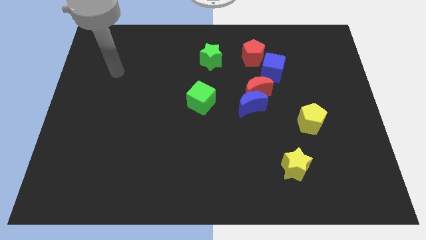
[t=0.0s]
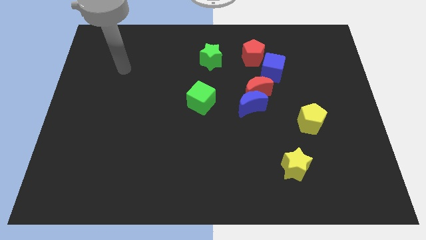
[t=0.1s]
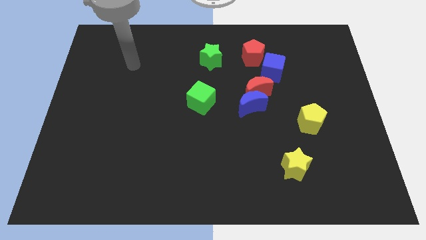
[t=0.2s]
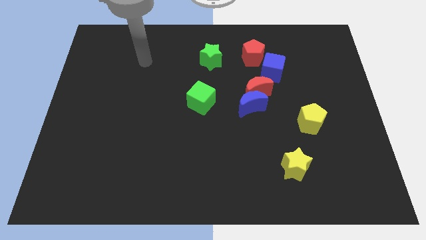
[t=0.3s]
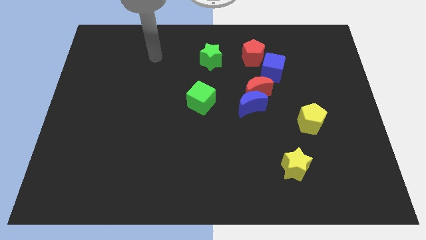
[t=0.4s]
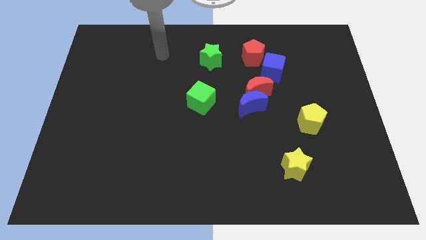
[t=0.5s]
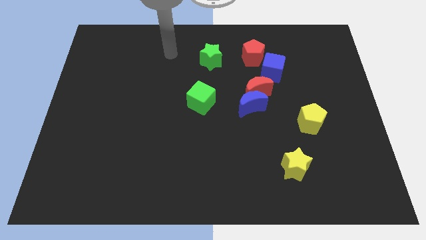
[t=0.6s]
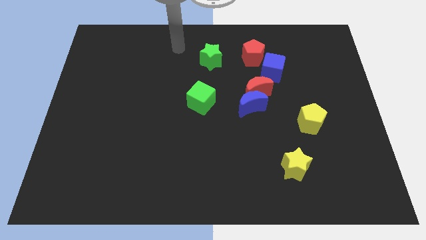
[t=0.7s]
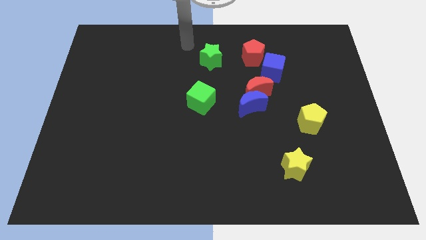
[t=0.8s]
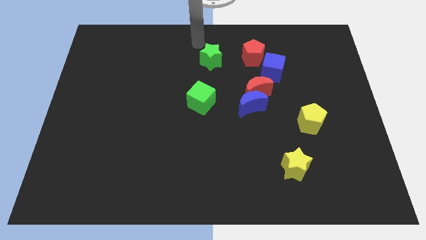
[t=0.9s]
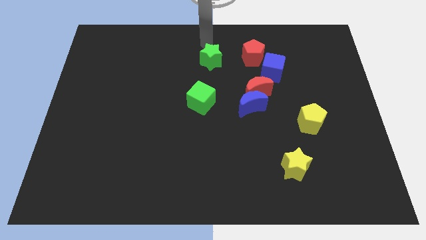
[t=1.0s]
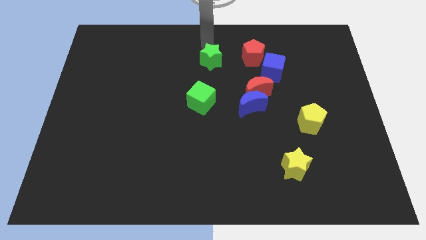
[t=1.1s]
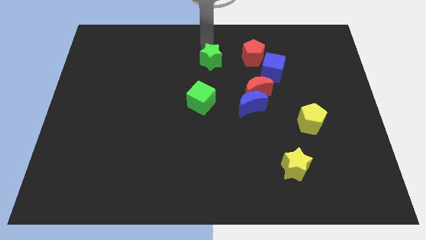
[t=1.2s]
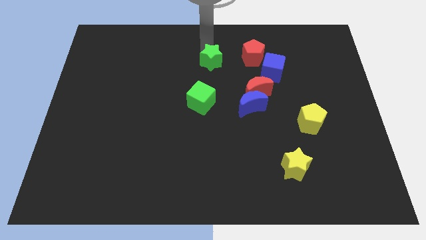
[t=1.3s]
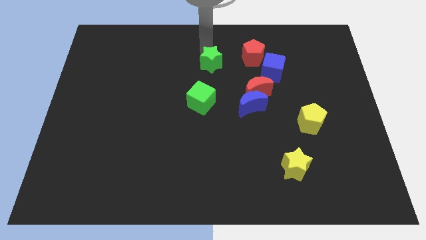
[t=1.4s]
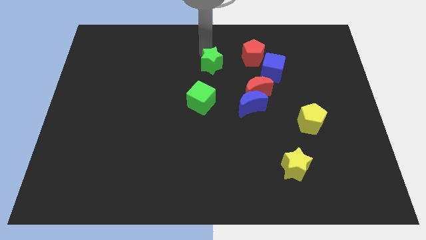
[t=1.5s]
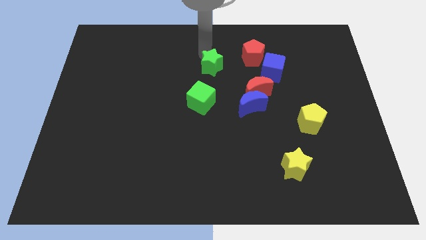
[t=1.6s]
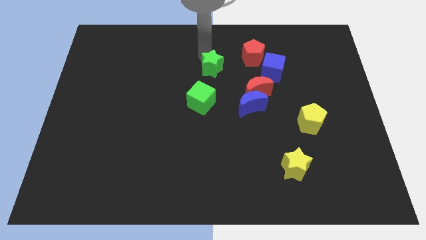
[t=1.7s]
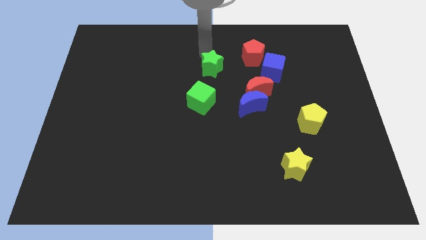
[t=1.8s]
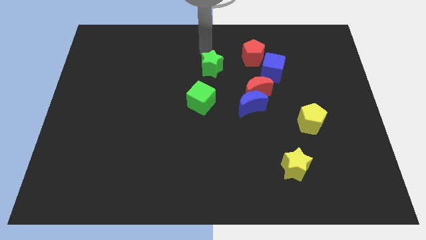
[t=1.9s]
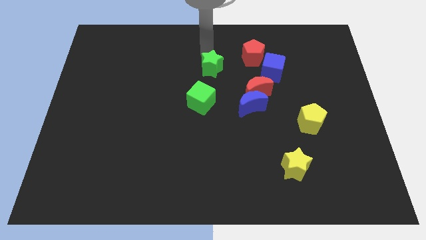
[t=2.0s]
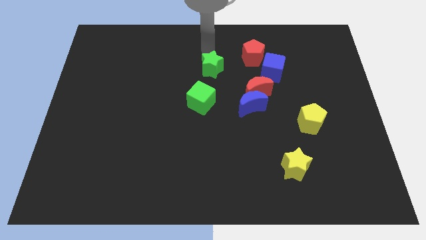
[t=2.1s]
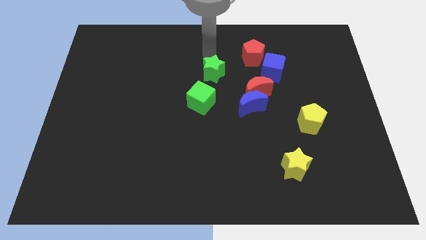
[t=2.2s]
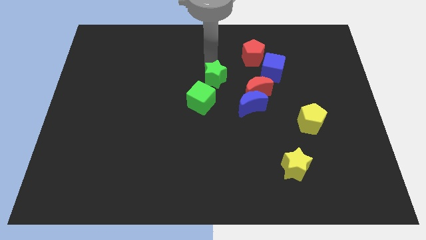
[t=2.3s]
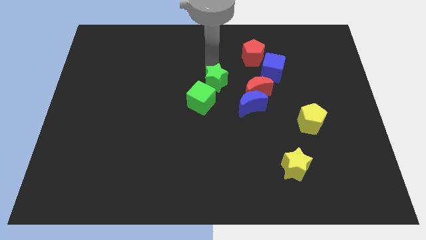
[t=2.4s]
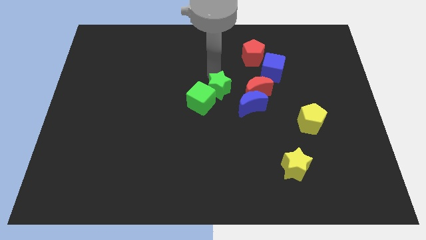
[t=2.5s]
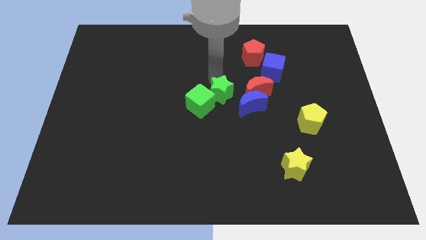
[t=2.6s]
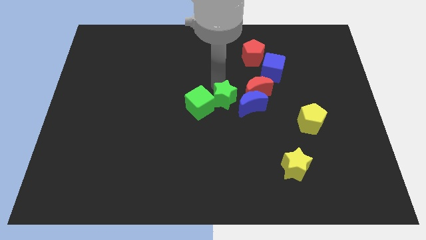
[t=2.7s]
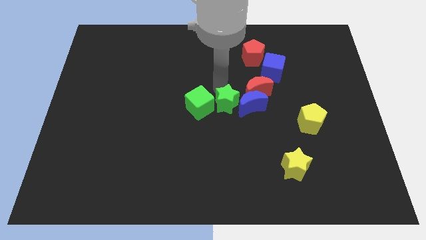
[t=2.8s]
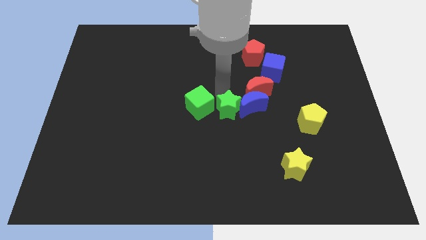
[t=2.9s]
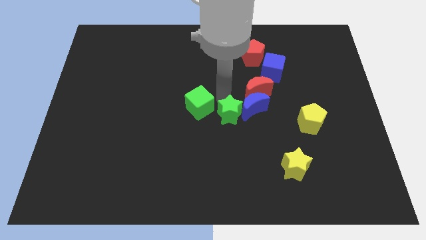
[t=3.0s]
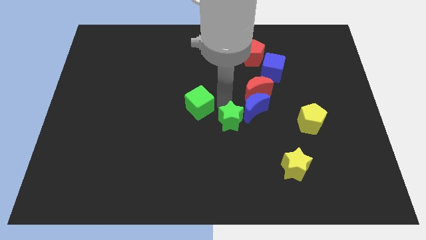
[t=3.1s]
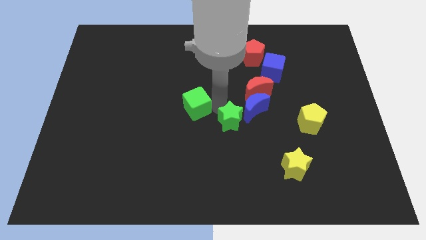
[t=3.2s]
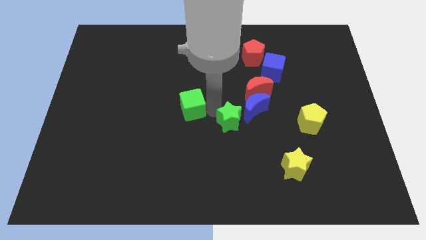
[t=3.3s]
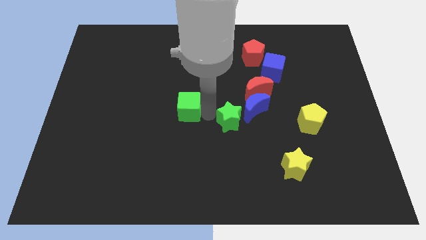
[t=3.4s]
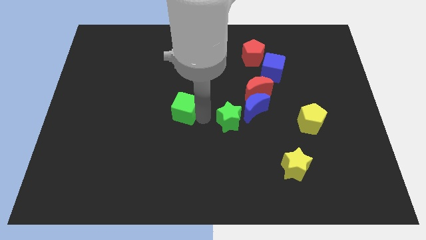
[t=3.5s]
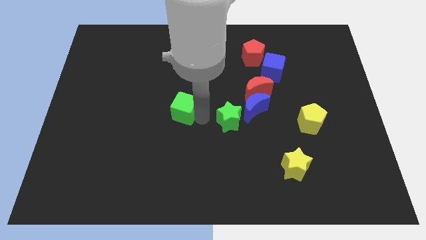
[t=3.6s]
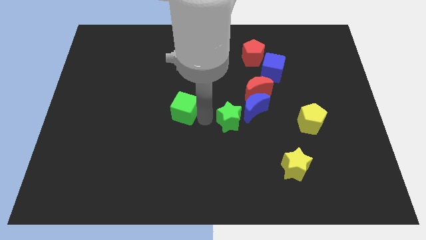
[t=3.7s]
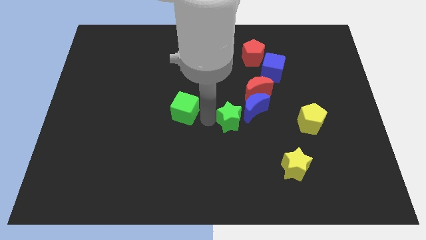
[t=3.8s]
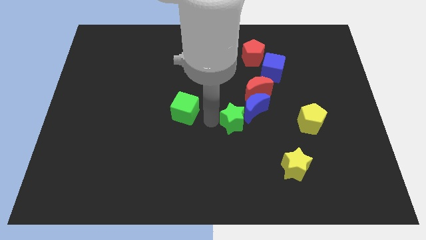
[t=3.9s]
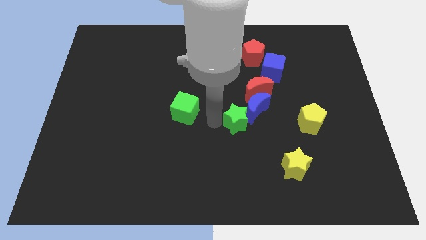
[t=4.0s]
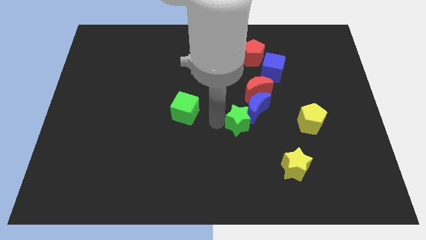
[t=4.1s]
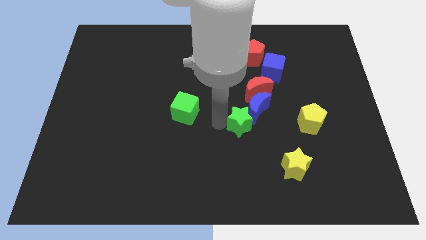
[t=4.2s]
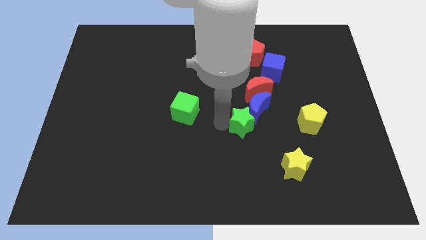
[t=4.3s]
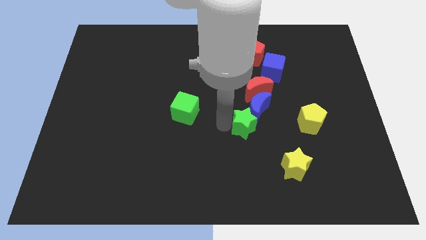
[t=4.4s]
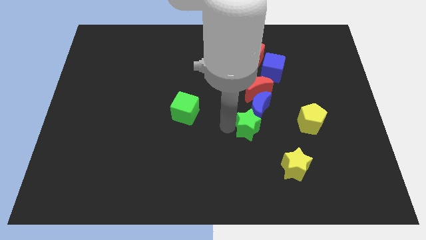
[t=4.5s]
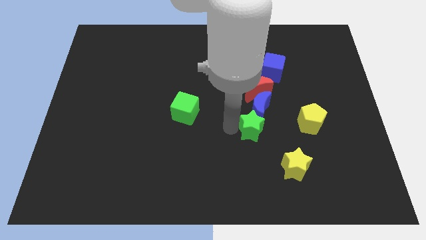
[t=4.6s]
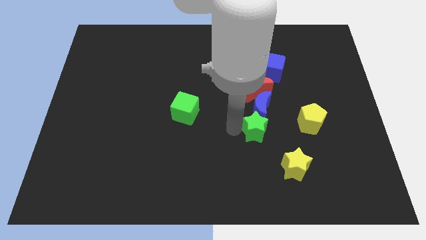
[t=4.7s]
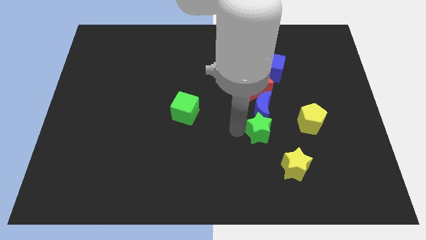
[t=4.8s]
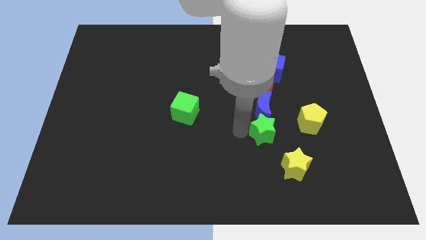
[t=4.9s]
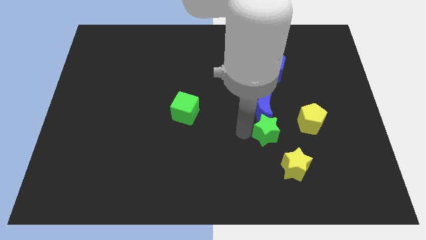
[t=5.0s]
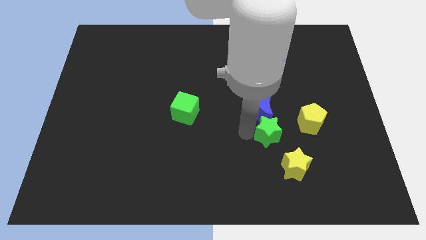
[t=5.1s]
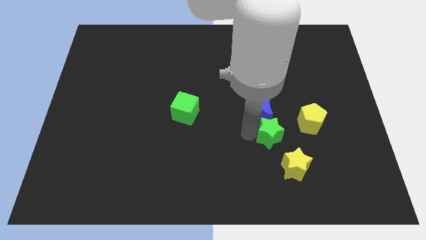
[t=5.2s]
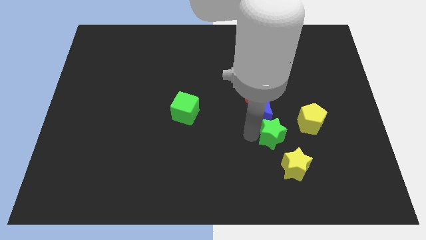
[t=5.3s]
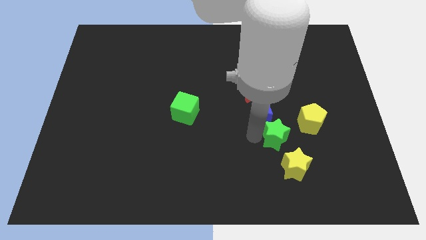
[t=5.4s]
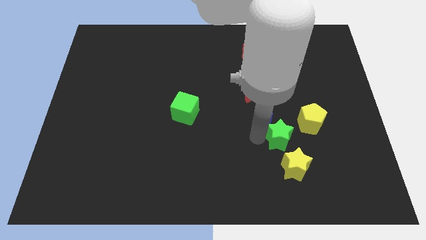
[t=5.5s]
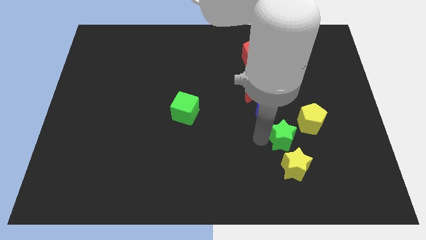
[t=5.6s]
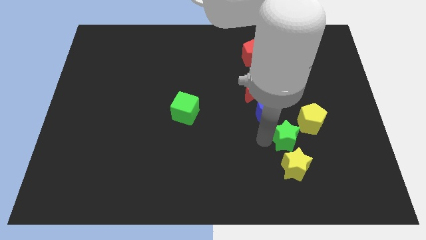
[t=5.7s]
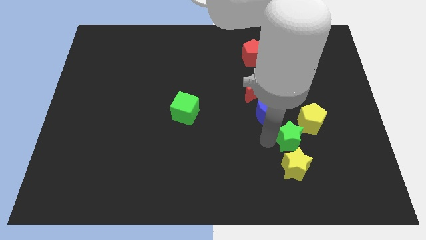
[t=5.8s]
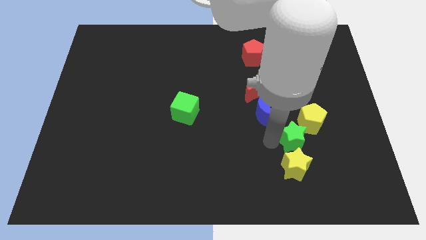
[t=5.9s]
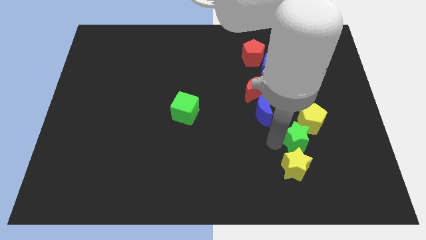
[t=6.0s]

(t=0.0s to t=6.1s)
put the green star to the yellow pentagon
